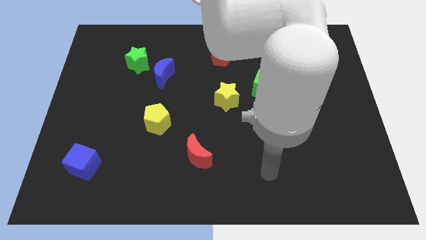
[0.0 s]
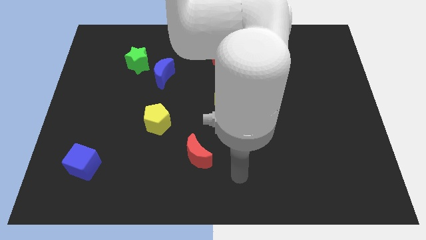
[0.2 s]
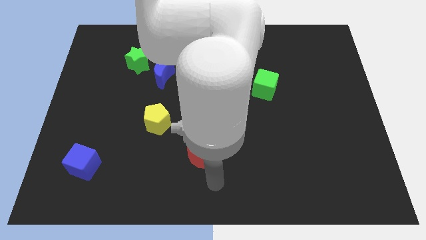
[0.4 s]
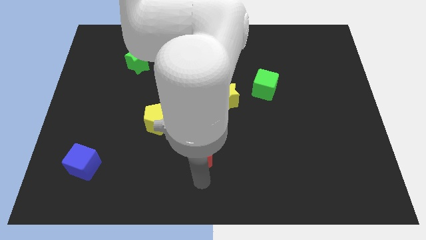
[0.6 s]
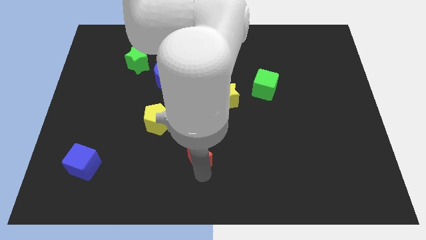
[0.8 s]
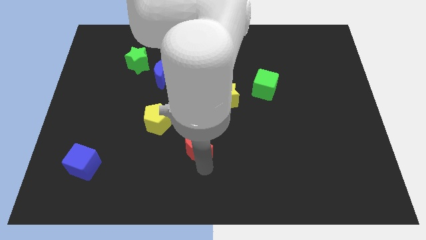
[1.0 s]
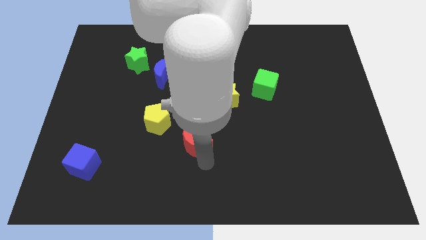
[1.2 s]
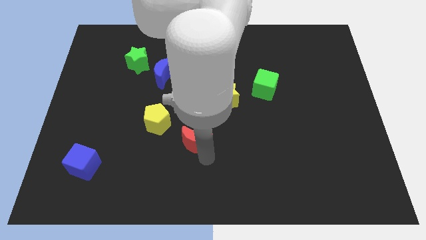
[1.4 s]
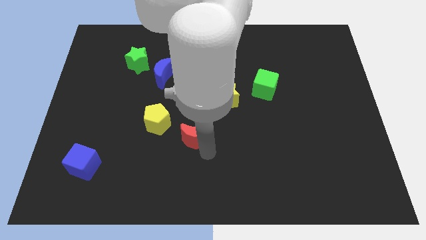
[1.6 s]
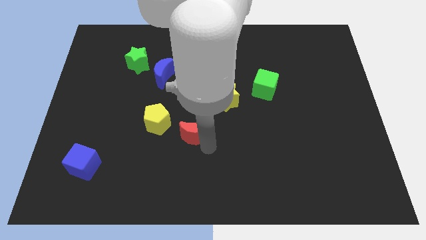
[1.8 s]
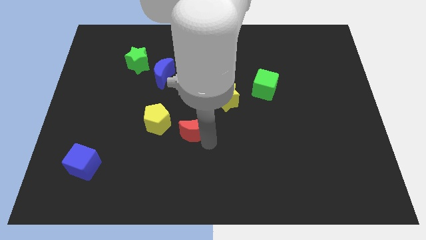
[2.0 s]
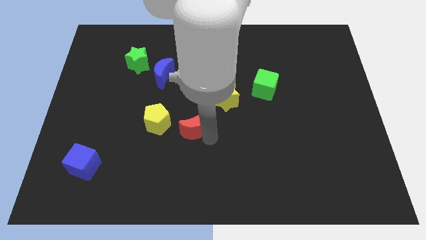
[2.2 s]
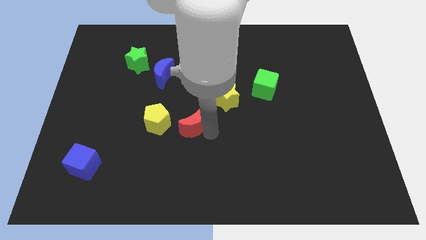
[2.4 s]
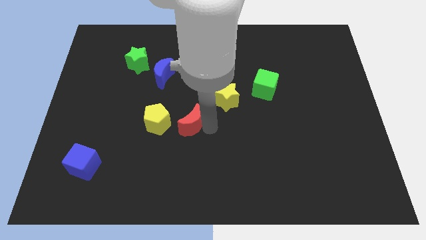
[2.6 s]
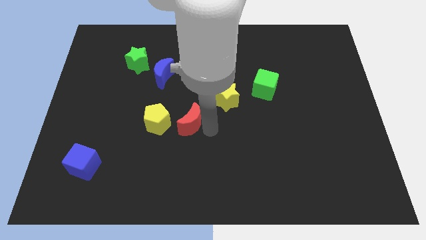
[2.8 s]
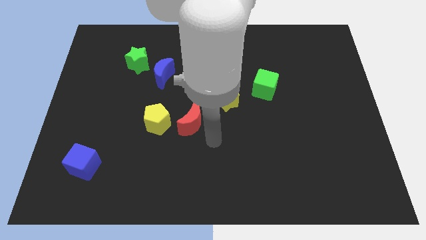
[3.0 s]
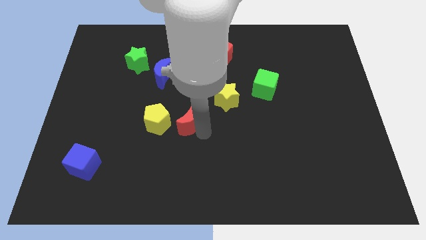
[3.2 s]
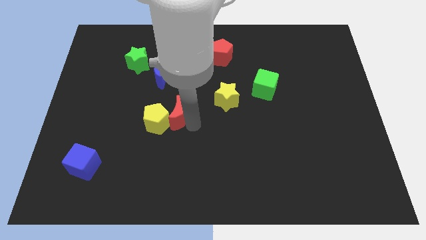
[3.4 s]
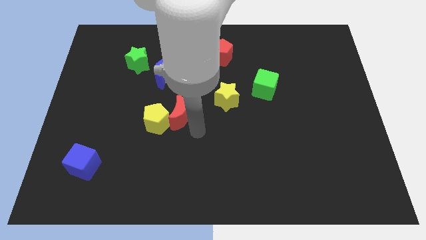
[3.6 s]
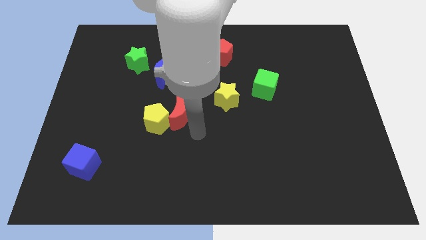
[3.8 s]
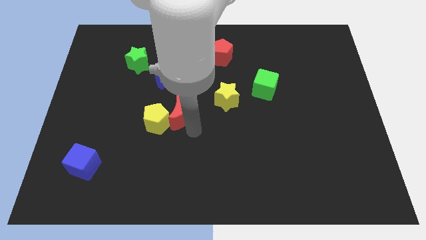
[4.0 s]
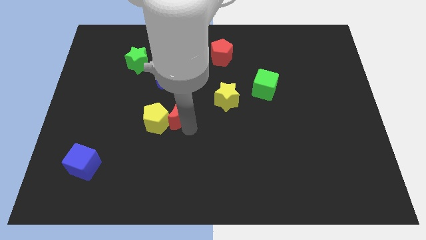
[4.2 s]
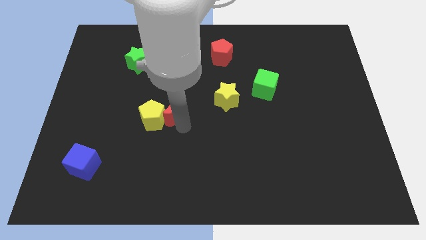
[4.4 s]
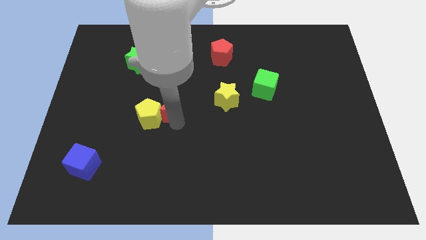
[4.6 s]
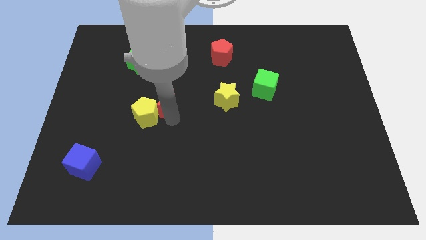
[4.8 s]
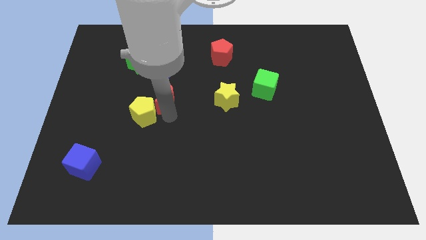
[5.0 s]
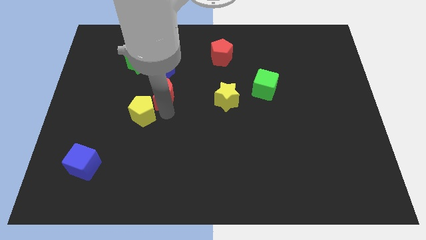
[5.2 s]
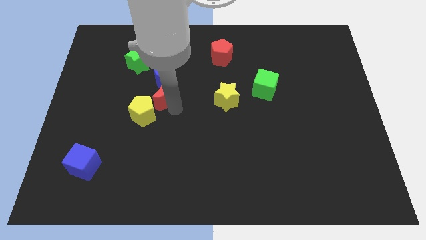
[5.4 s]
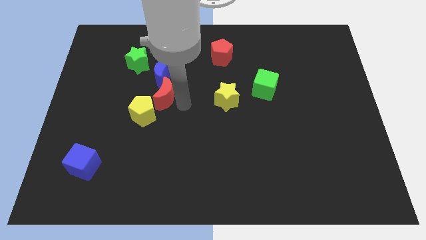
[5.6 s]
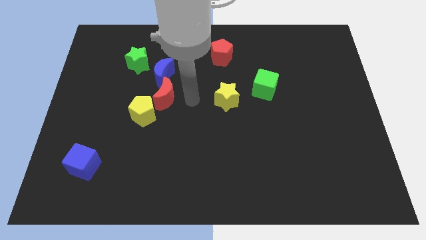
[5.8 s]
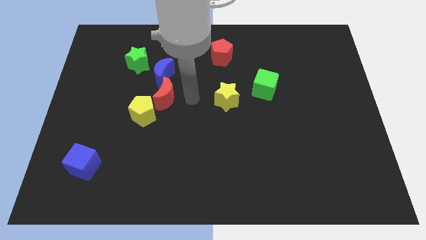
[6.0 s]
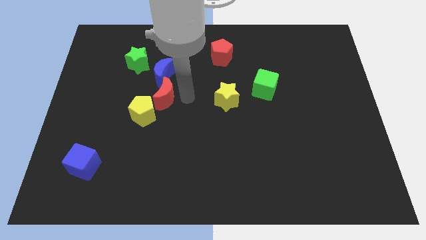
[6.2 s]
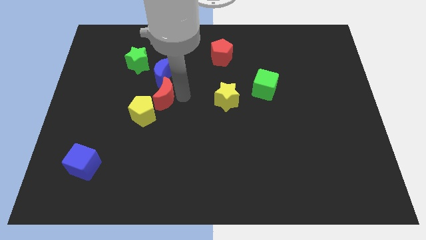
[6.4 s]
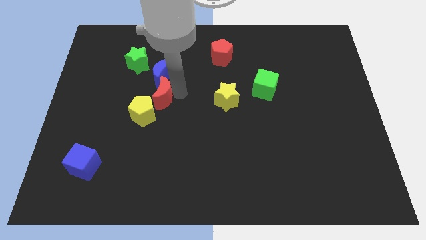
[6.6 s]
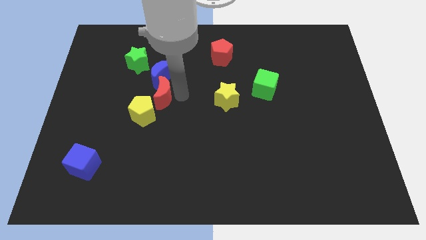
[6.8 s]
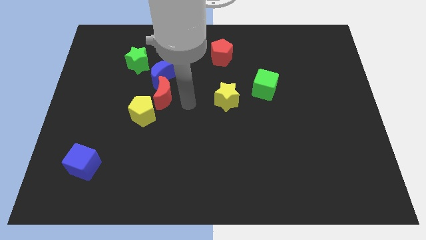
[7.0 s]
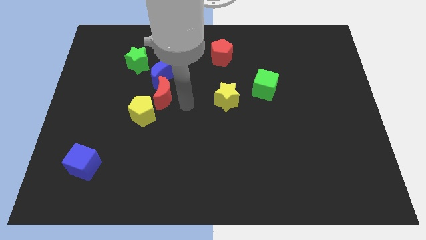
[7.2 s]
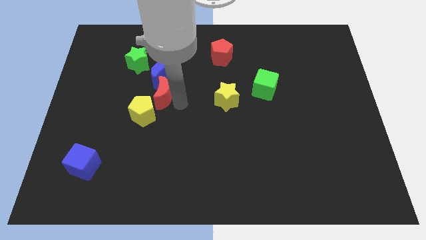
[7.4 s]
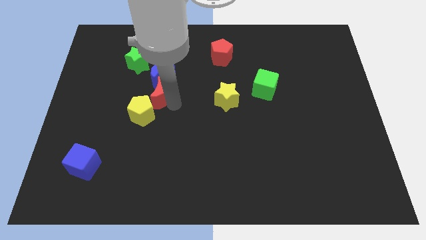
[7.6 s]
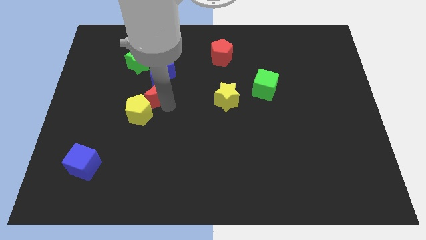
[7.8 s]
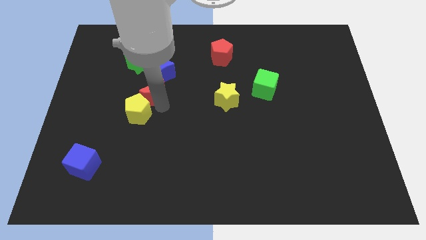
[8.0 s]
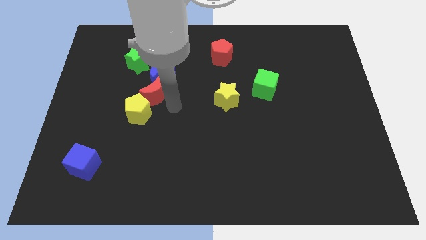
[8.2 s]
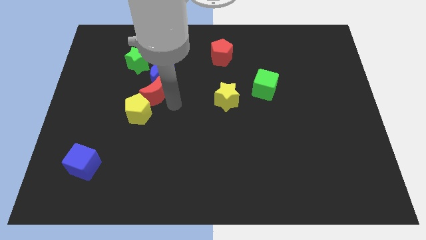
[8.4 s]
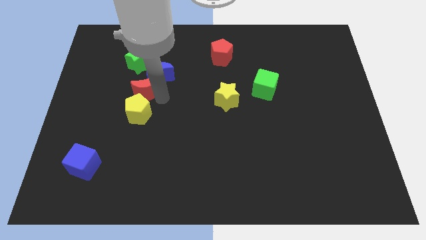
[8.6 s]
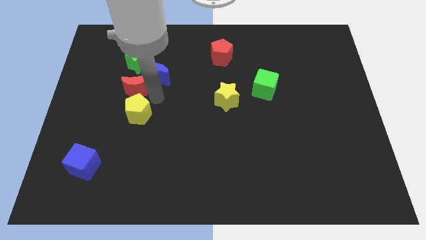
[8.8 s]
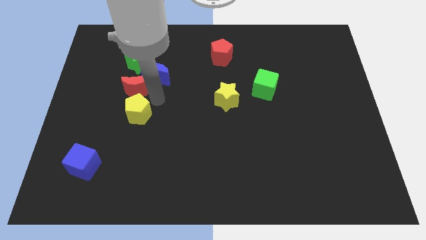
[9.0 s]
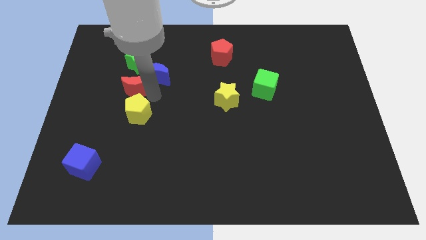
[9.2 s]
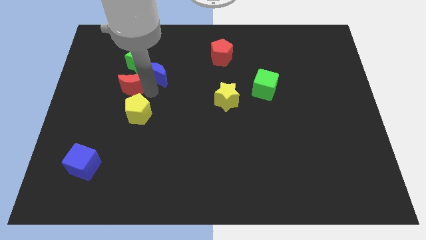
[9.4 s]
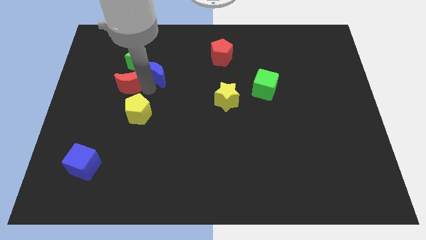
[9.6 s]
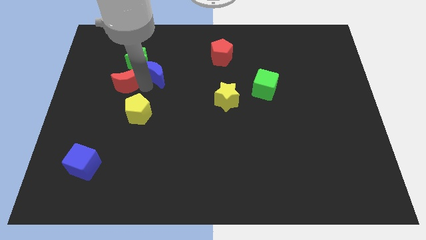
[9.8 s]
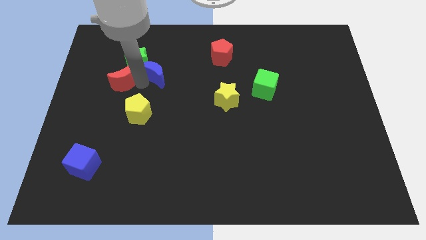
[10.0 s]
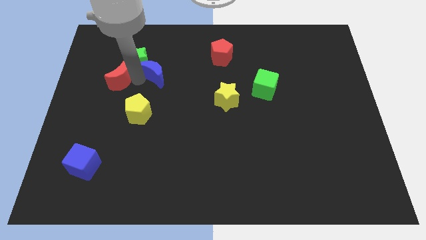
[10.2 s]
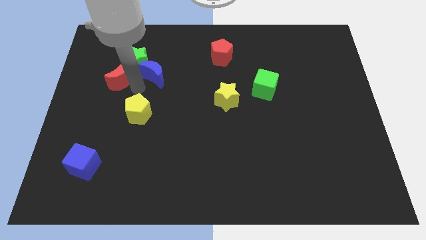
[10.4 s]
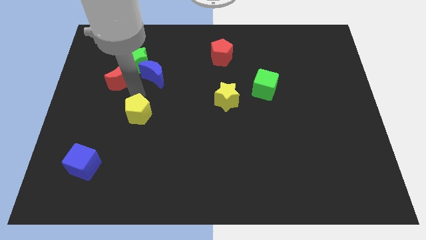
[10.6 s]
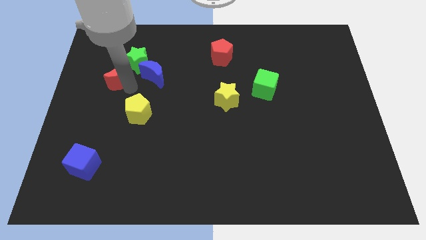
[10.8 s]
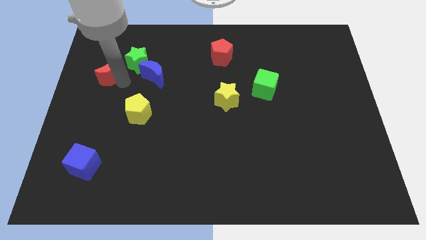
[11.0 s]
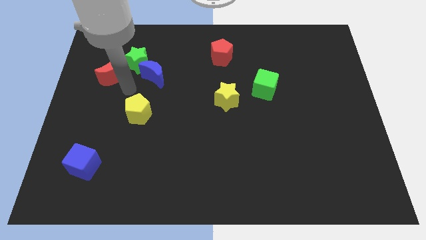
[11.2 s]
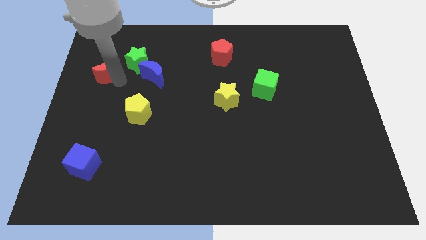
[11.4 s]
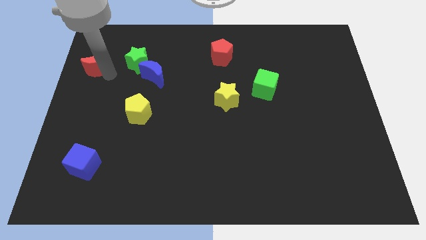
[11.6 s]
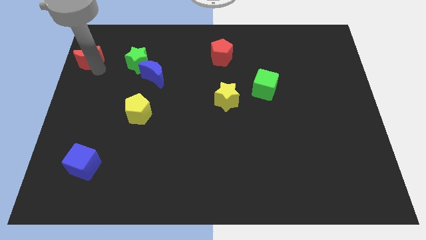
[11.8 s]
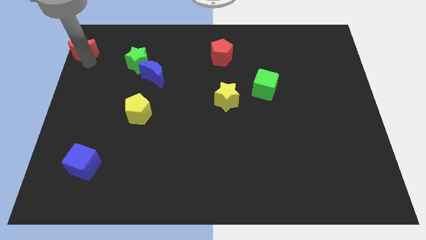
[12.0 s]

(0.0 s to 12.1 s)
move the red moon to the top left of the board
